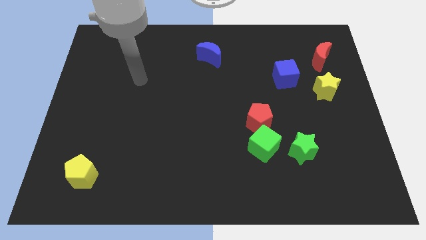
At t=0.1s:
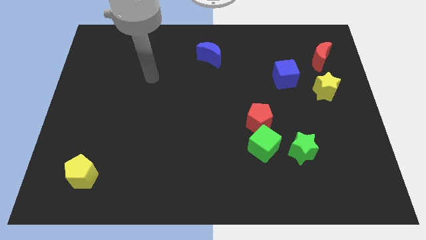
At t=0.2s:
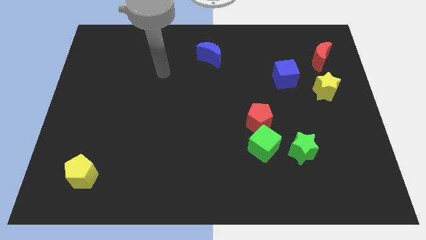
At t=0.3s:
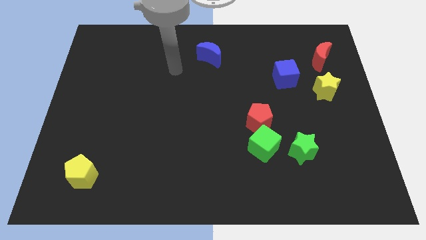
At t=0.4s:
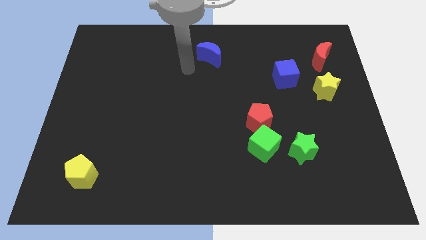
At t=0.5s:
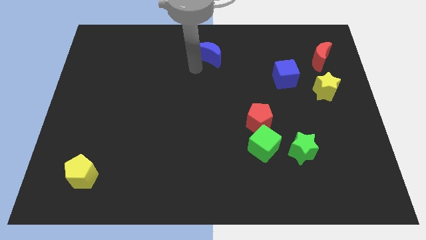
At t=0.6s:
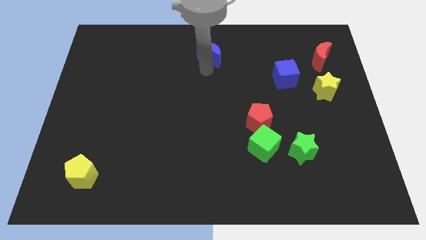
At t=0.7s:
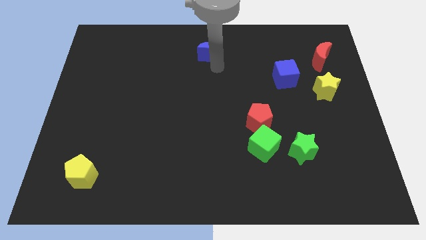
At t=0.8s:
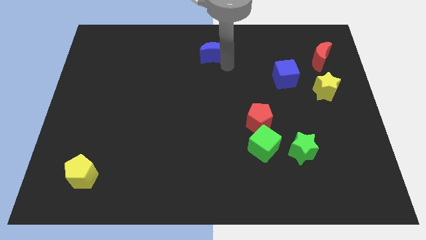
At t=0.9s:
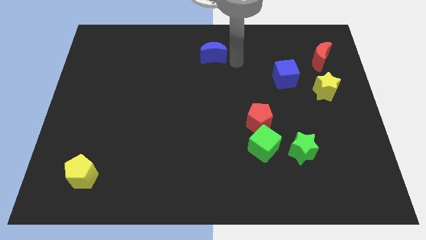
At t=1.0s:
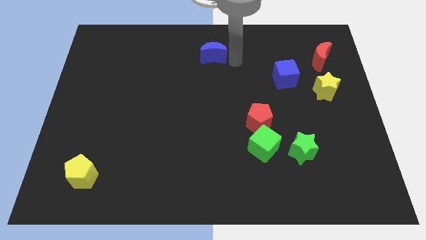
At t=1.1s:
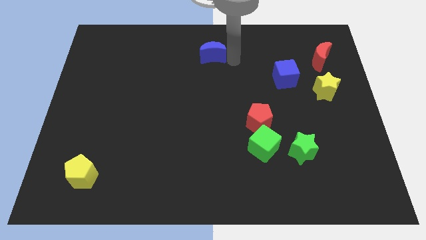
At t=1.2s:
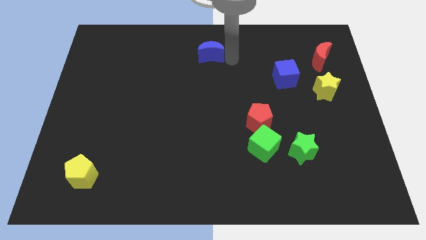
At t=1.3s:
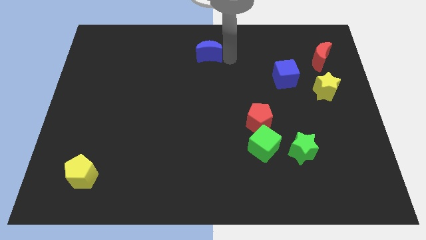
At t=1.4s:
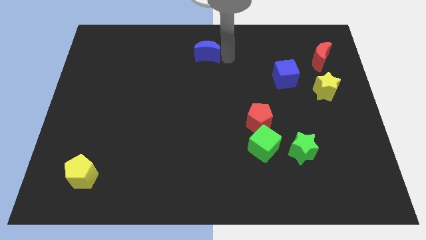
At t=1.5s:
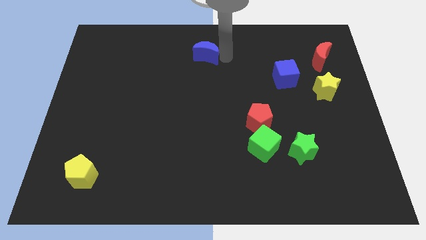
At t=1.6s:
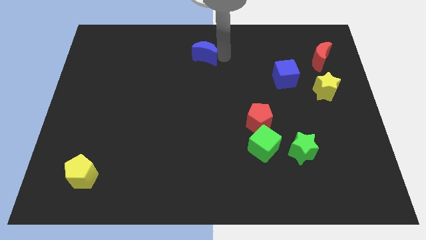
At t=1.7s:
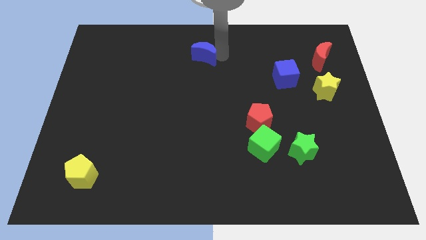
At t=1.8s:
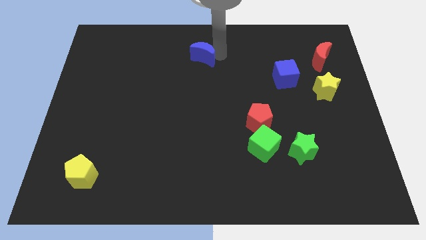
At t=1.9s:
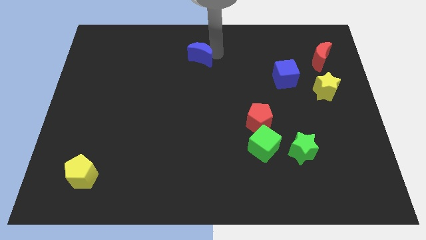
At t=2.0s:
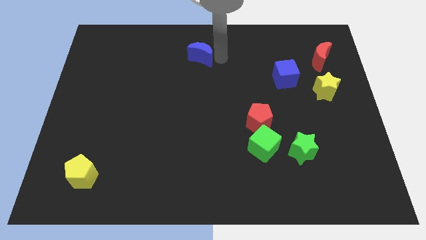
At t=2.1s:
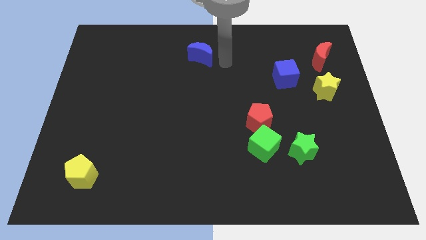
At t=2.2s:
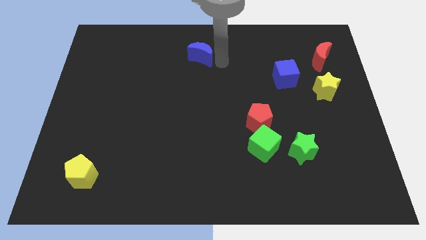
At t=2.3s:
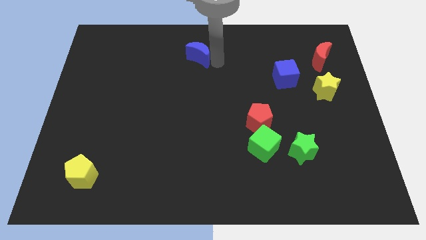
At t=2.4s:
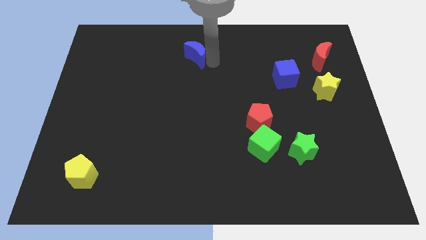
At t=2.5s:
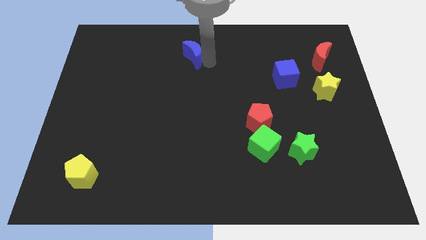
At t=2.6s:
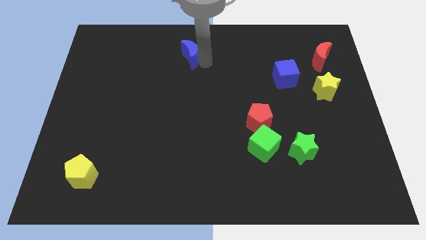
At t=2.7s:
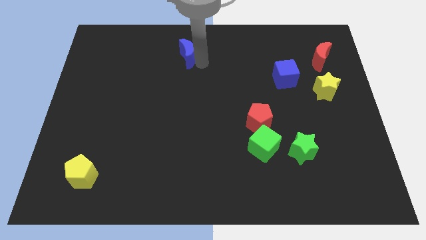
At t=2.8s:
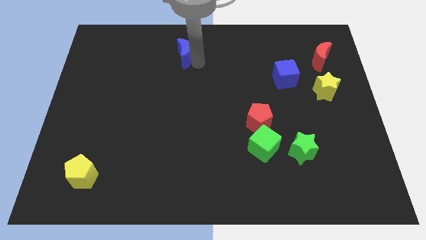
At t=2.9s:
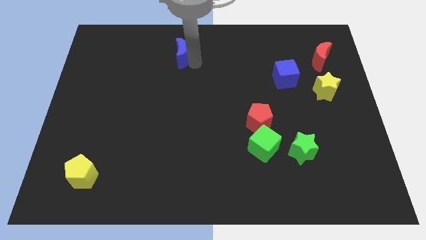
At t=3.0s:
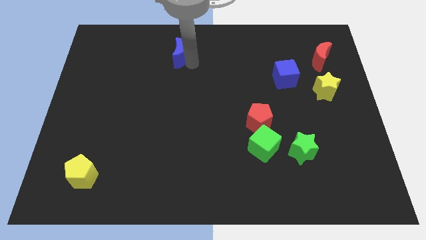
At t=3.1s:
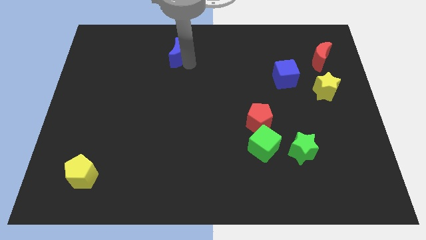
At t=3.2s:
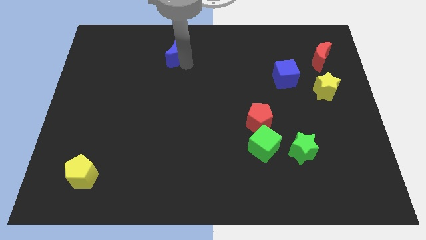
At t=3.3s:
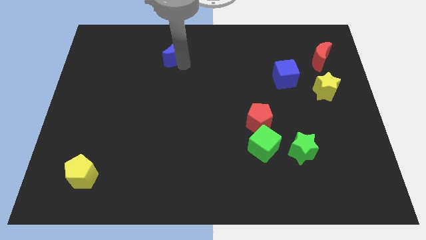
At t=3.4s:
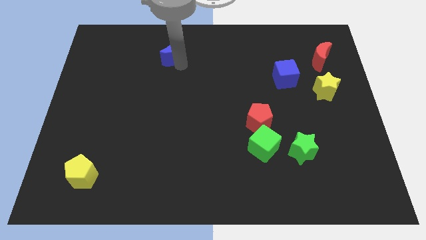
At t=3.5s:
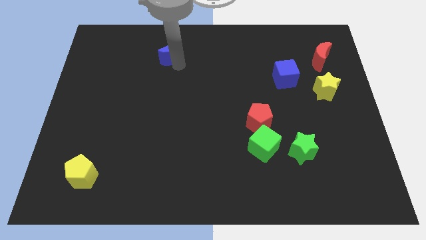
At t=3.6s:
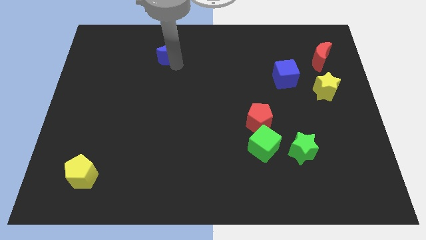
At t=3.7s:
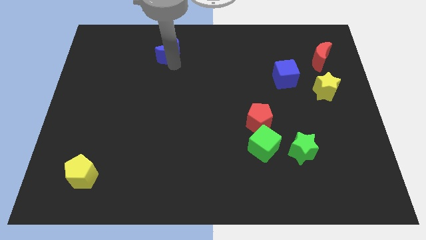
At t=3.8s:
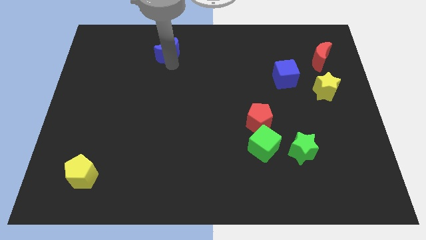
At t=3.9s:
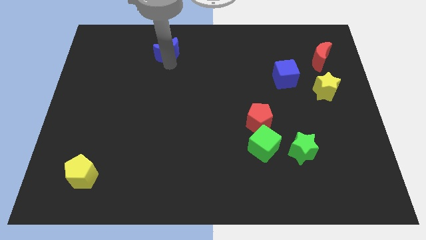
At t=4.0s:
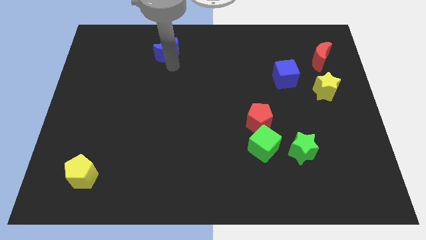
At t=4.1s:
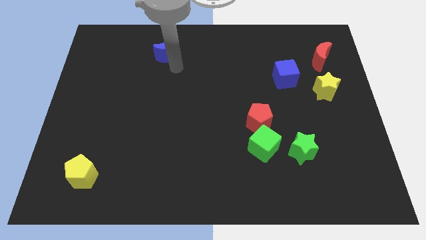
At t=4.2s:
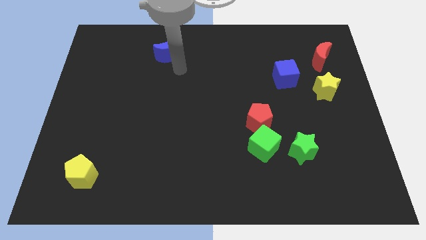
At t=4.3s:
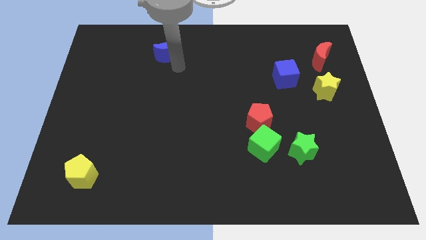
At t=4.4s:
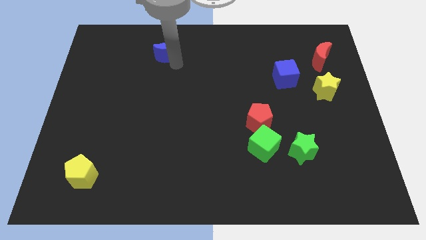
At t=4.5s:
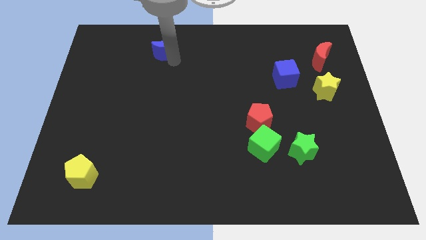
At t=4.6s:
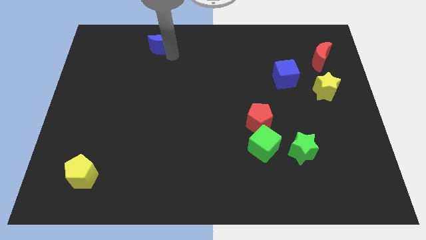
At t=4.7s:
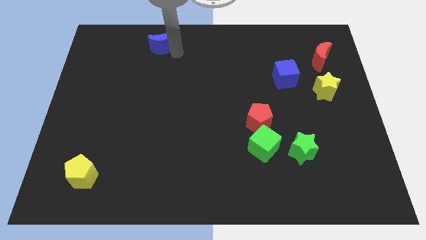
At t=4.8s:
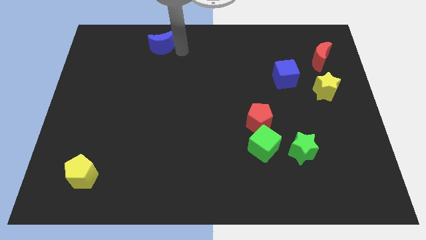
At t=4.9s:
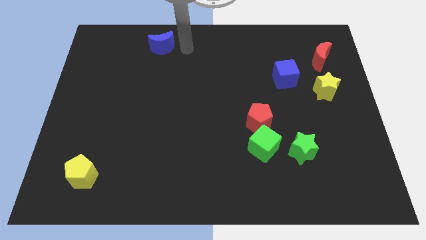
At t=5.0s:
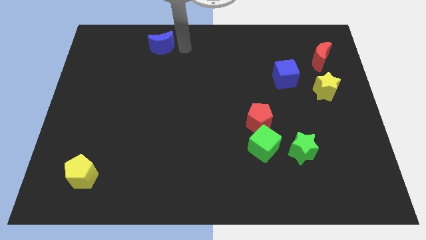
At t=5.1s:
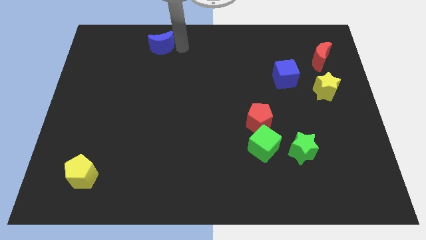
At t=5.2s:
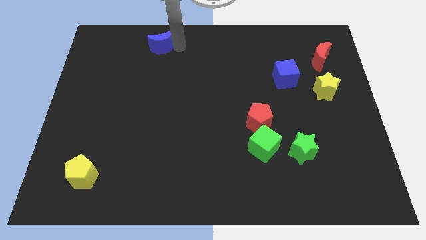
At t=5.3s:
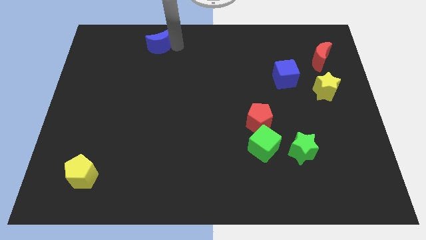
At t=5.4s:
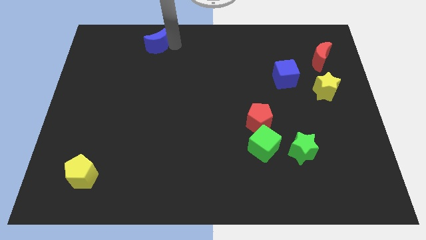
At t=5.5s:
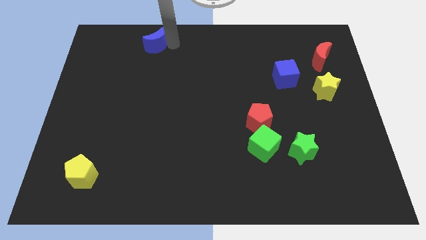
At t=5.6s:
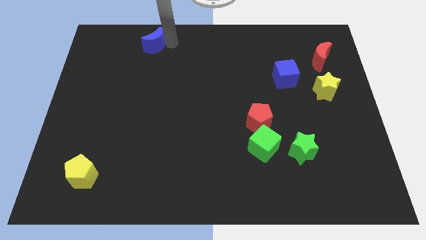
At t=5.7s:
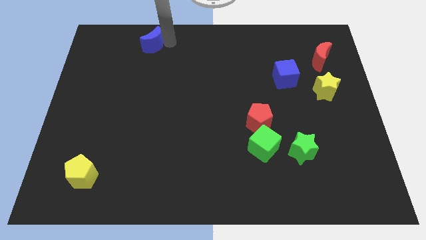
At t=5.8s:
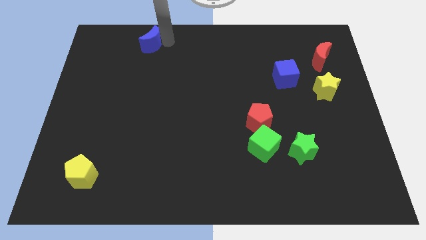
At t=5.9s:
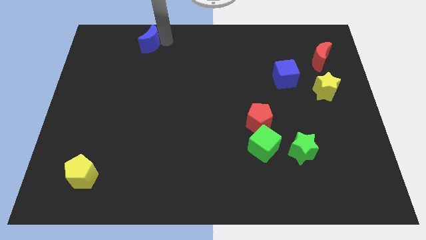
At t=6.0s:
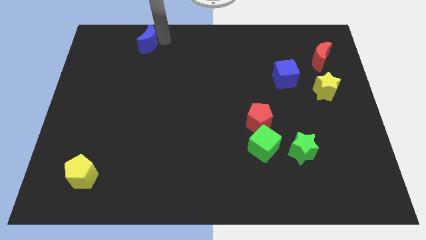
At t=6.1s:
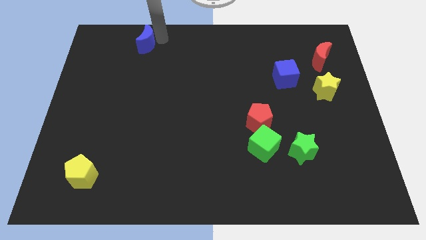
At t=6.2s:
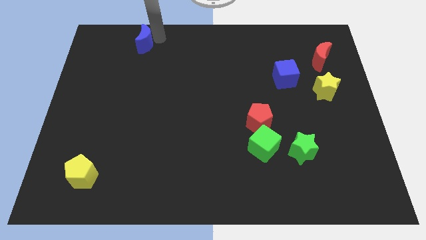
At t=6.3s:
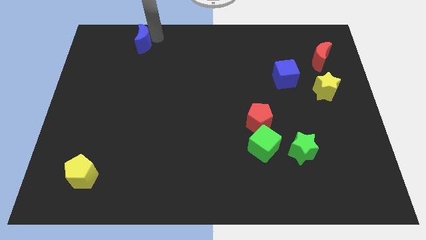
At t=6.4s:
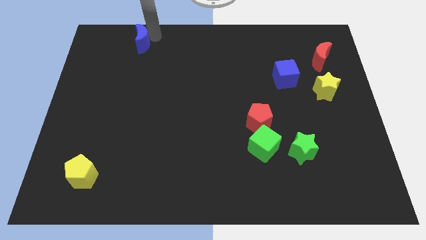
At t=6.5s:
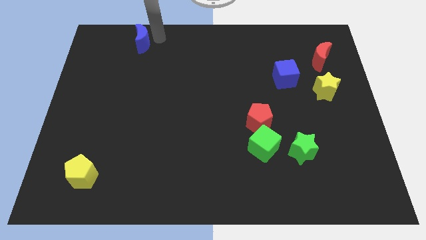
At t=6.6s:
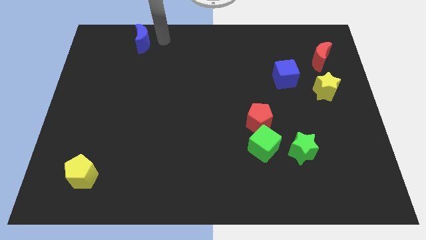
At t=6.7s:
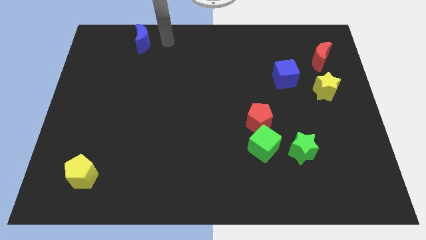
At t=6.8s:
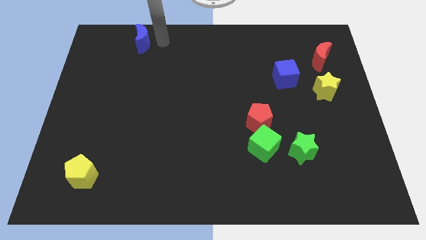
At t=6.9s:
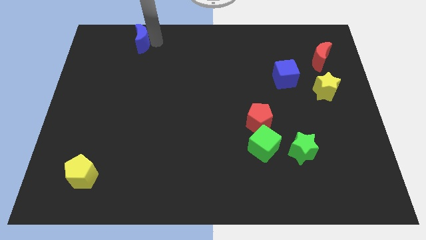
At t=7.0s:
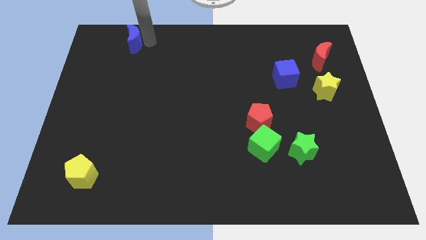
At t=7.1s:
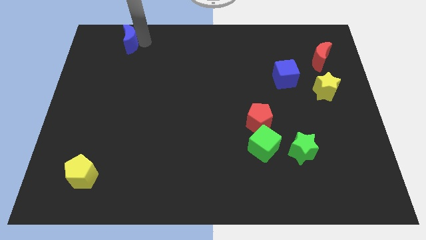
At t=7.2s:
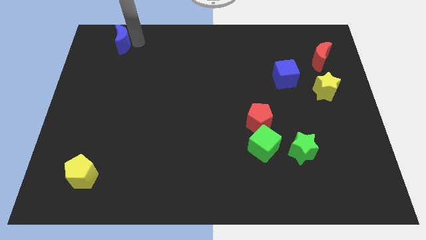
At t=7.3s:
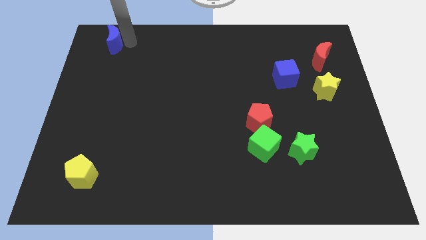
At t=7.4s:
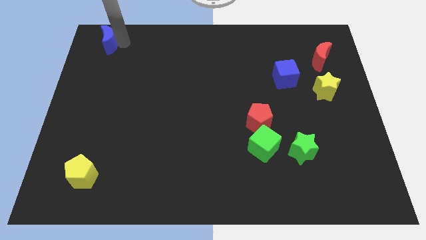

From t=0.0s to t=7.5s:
put the blue moon to the top left of the board

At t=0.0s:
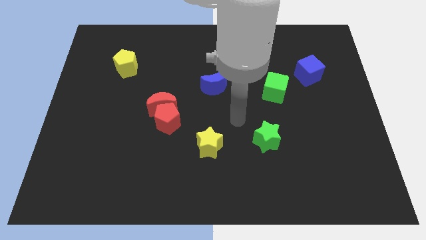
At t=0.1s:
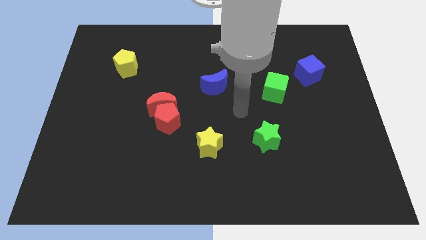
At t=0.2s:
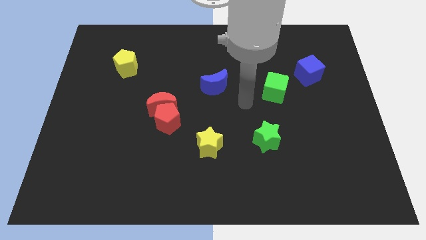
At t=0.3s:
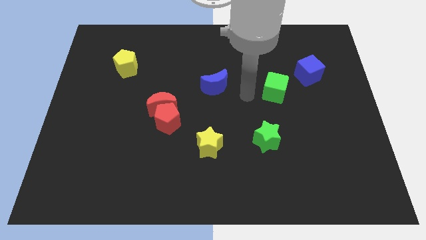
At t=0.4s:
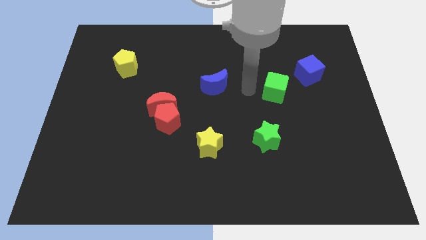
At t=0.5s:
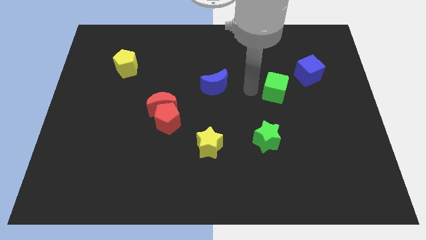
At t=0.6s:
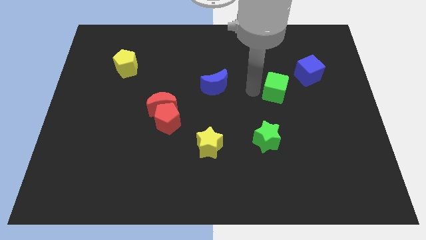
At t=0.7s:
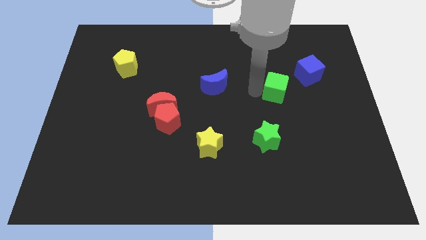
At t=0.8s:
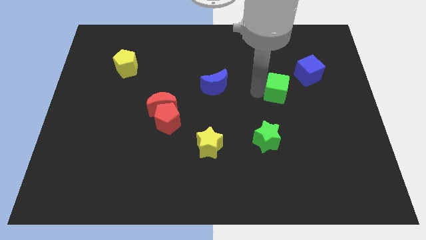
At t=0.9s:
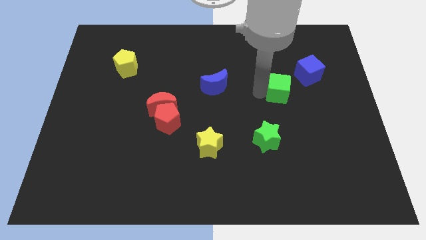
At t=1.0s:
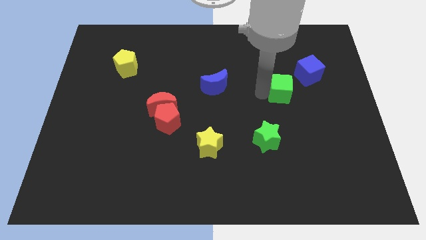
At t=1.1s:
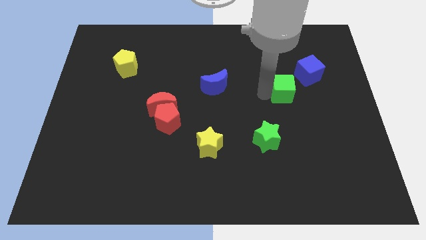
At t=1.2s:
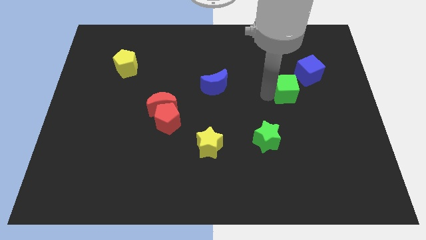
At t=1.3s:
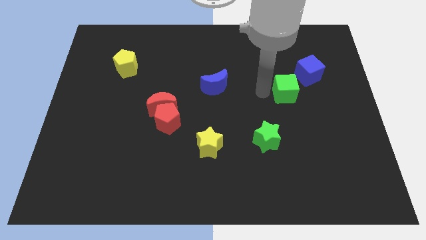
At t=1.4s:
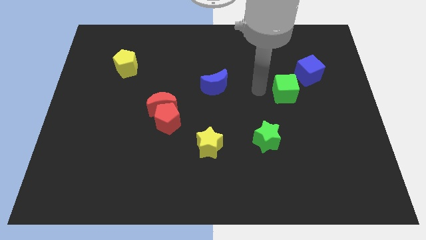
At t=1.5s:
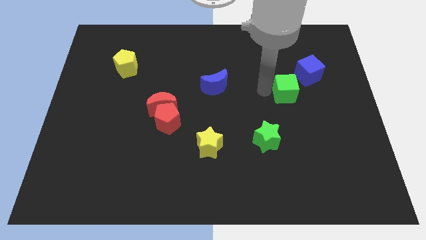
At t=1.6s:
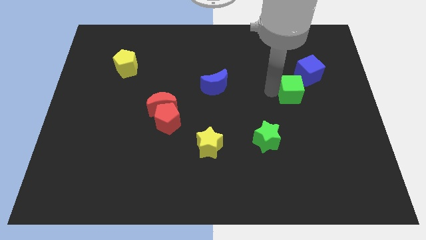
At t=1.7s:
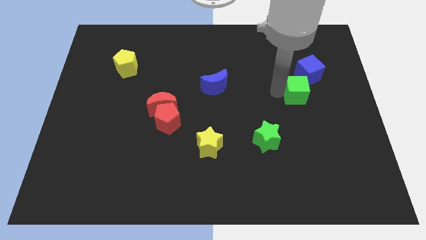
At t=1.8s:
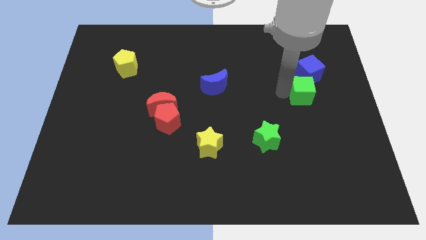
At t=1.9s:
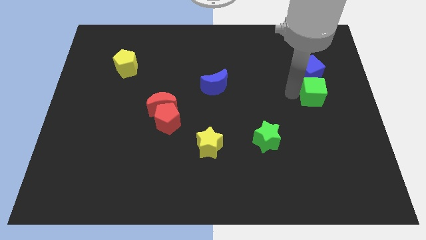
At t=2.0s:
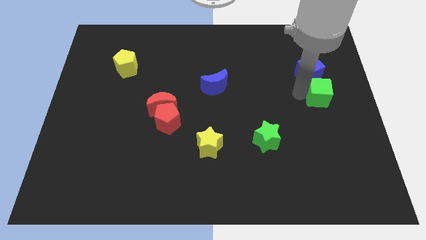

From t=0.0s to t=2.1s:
push the green cube to the center right
